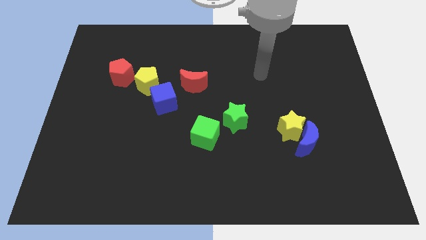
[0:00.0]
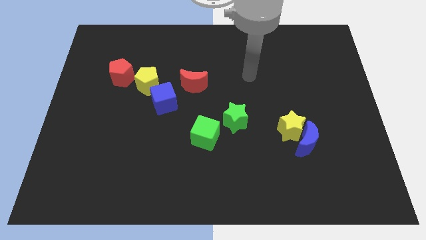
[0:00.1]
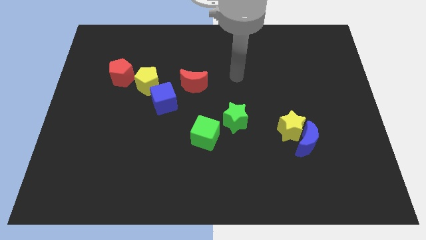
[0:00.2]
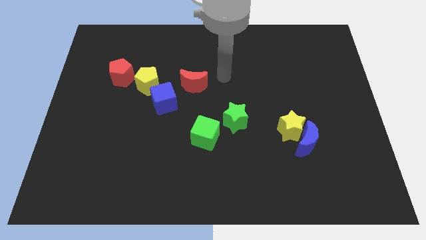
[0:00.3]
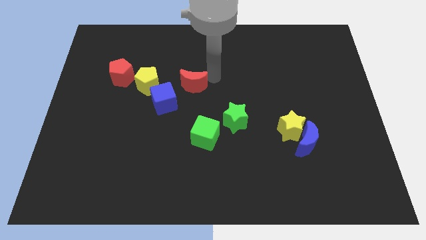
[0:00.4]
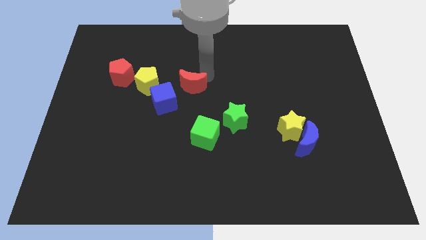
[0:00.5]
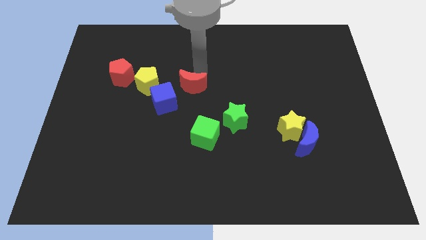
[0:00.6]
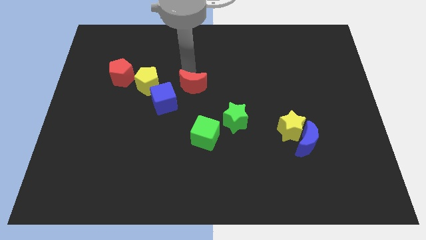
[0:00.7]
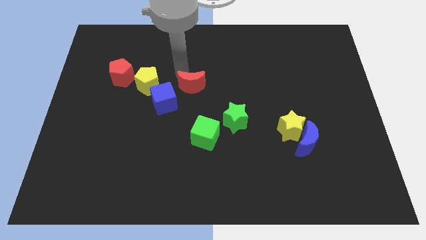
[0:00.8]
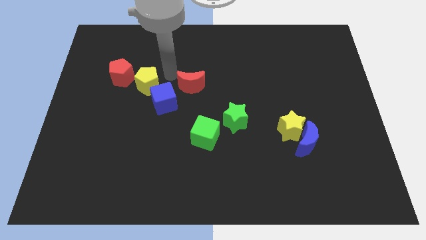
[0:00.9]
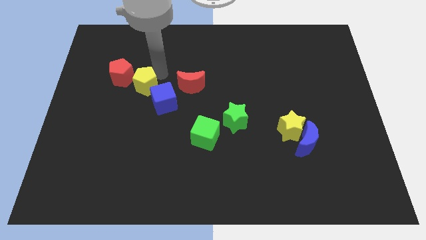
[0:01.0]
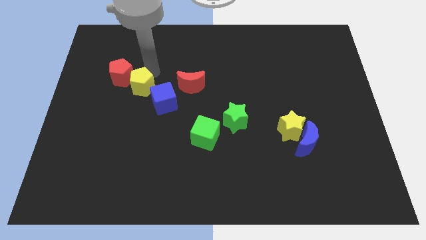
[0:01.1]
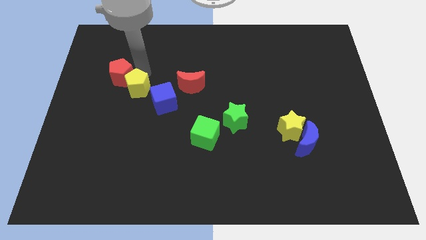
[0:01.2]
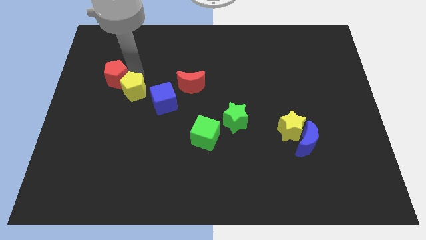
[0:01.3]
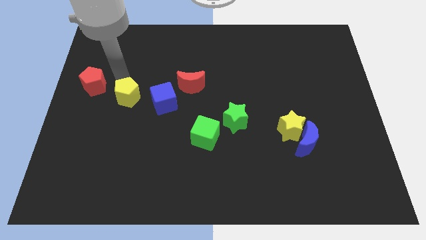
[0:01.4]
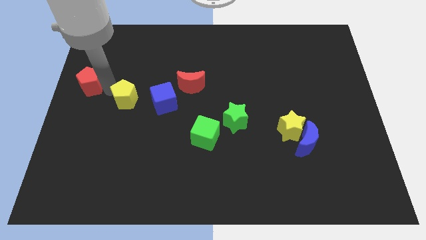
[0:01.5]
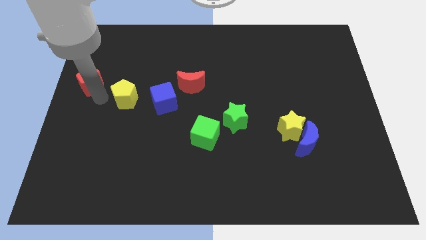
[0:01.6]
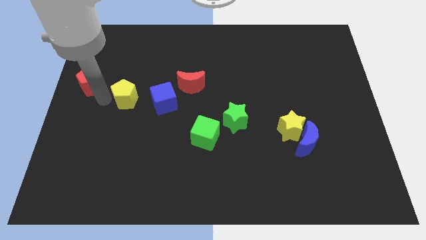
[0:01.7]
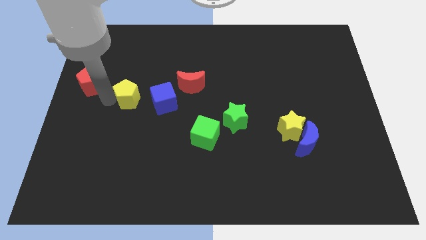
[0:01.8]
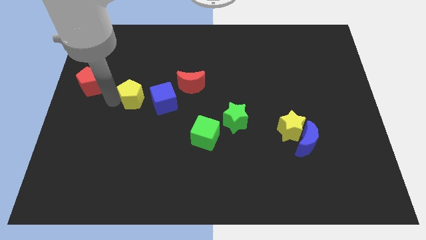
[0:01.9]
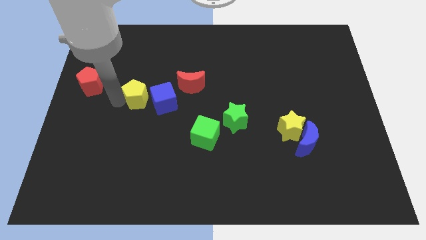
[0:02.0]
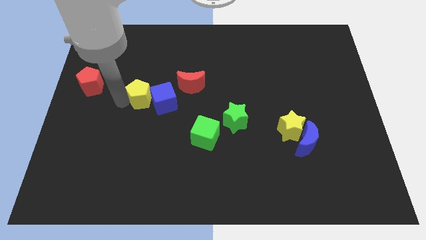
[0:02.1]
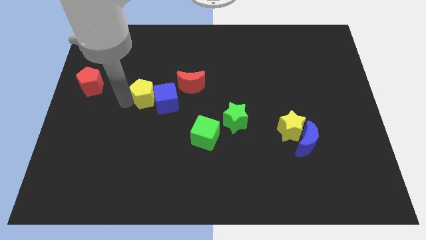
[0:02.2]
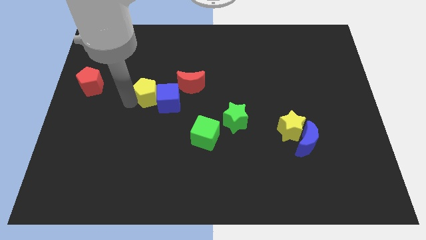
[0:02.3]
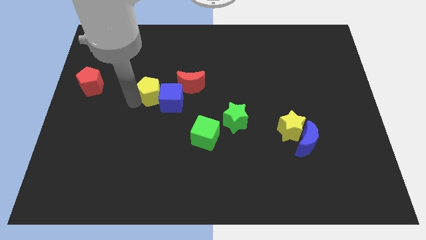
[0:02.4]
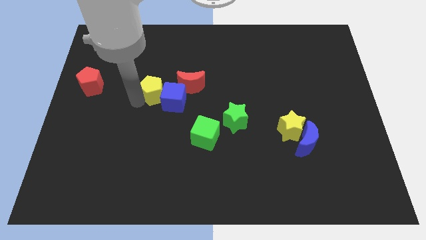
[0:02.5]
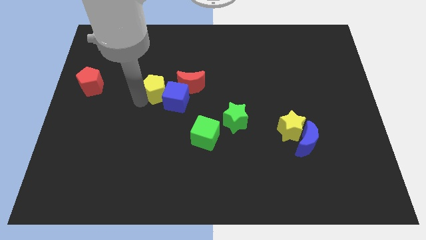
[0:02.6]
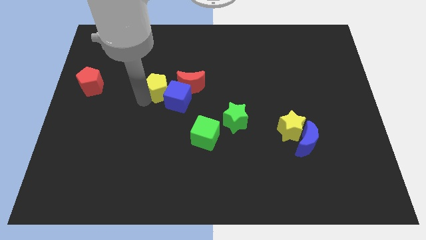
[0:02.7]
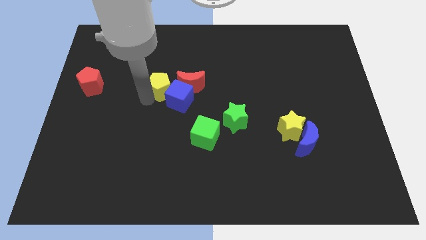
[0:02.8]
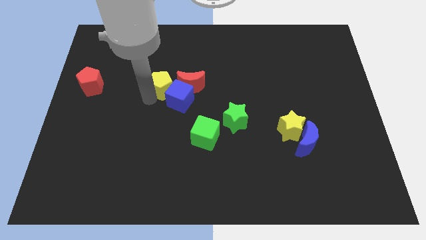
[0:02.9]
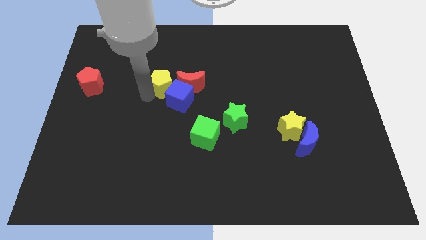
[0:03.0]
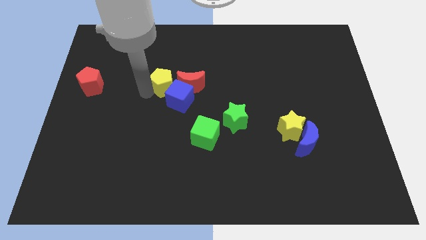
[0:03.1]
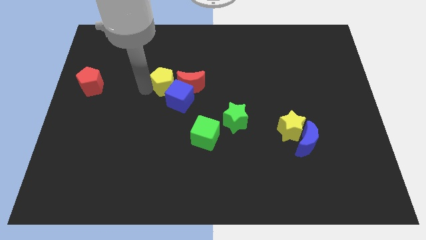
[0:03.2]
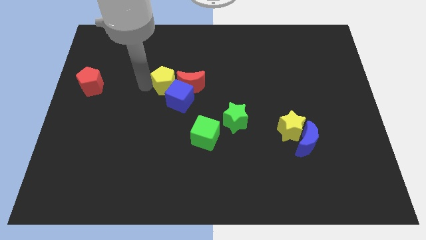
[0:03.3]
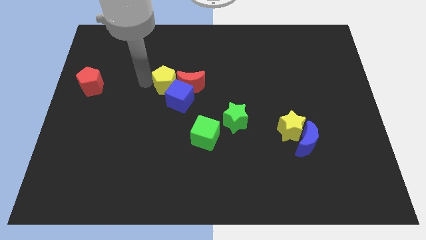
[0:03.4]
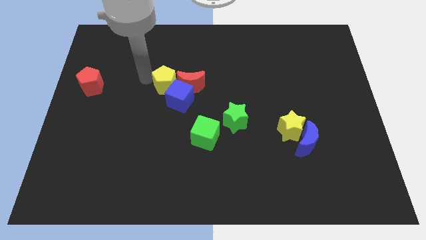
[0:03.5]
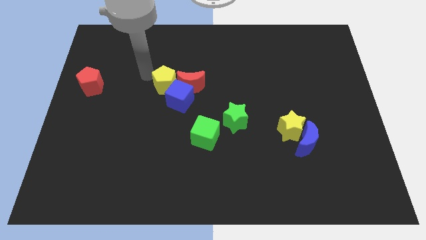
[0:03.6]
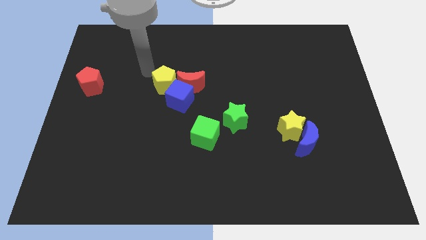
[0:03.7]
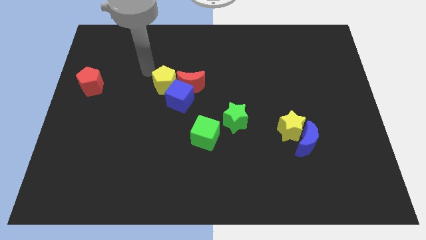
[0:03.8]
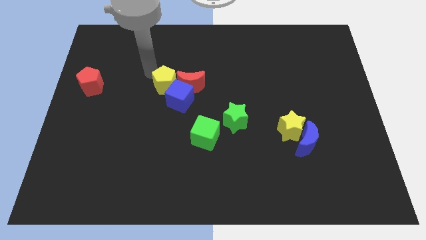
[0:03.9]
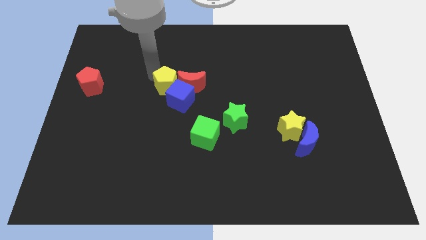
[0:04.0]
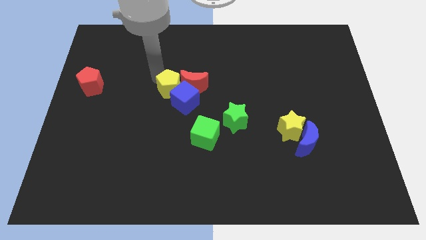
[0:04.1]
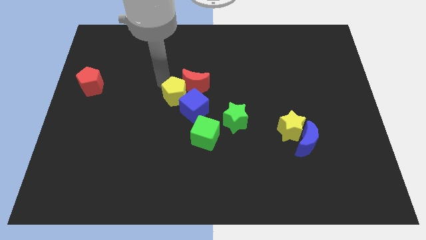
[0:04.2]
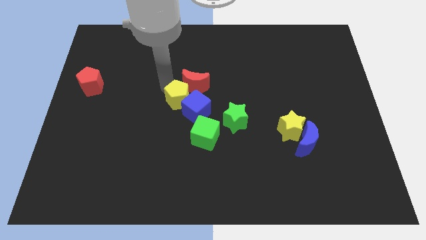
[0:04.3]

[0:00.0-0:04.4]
move the yellow pentagon to the right a little bit

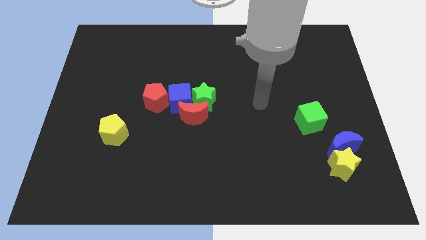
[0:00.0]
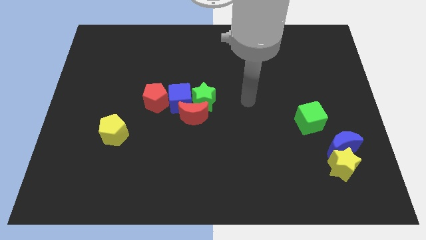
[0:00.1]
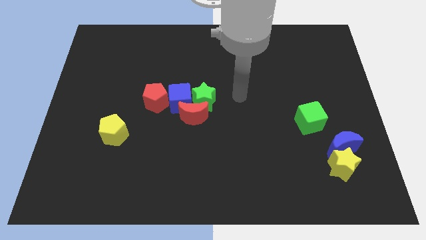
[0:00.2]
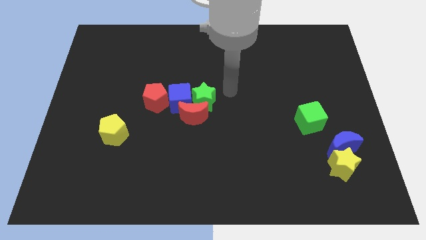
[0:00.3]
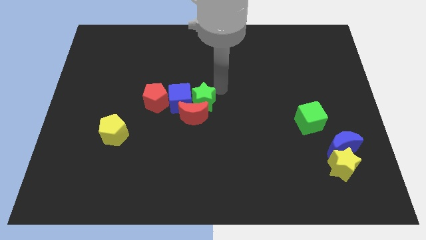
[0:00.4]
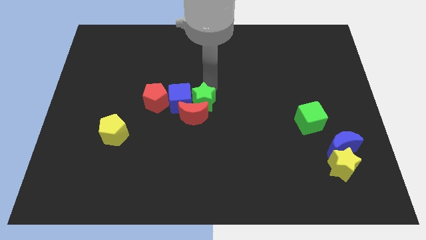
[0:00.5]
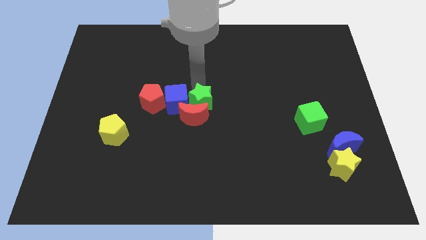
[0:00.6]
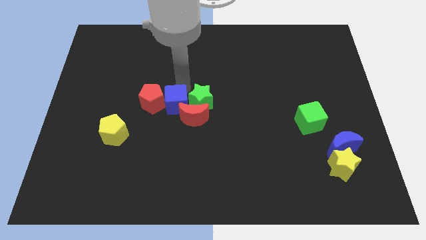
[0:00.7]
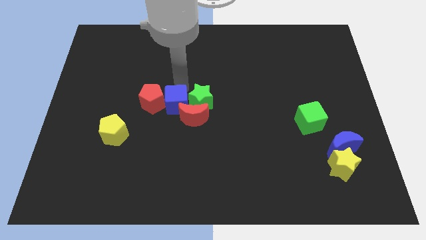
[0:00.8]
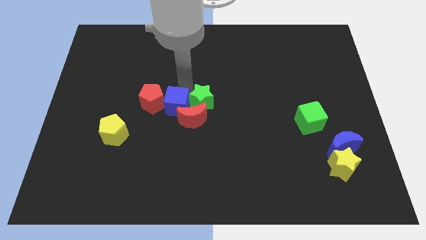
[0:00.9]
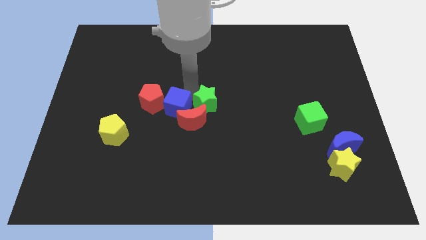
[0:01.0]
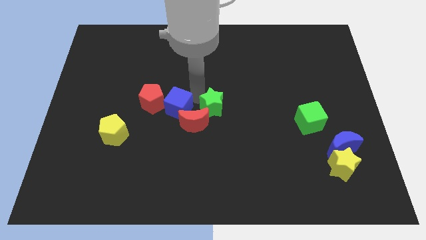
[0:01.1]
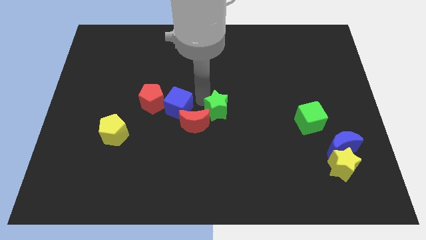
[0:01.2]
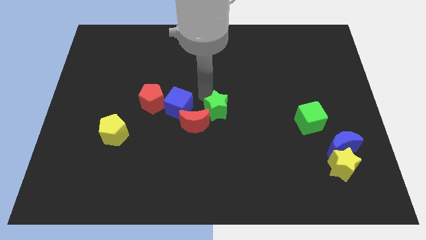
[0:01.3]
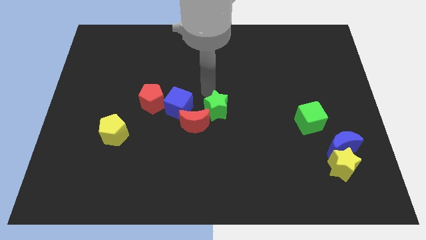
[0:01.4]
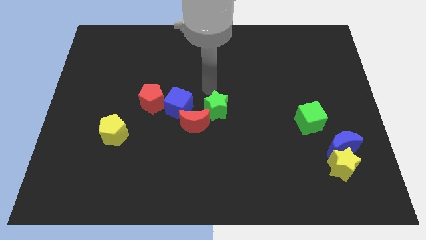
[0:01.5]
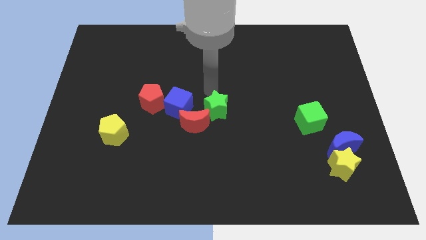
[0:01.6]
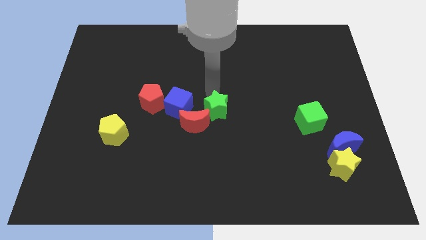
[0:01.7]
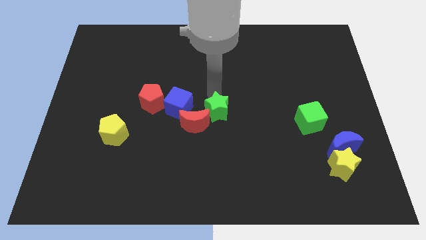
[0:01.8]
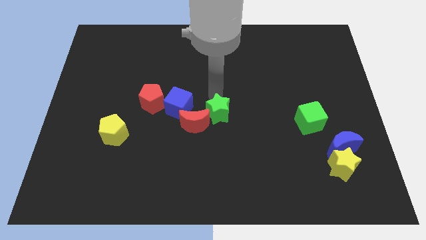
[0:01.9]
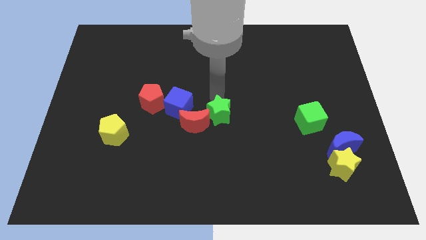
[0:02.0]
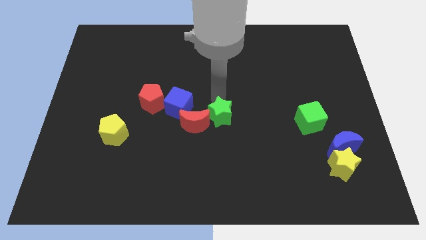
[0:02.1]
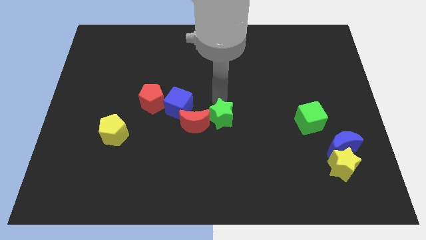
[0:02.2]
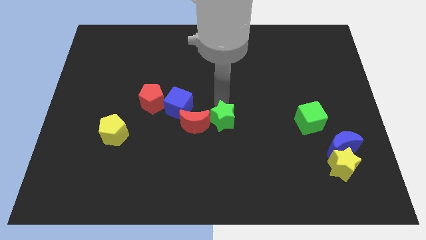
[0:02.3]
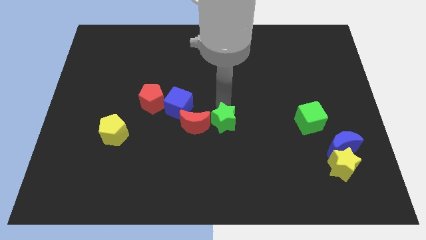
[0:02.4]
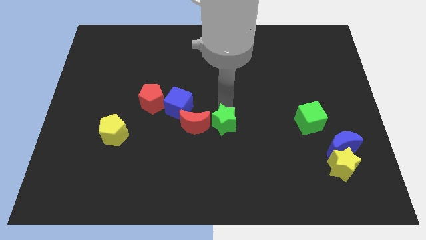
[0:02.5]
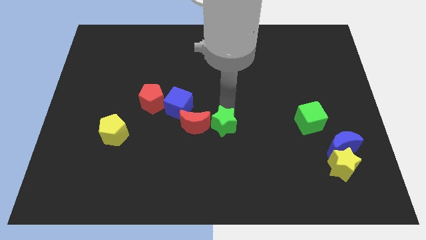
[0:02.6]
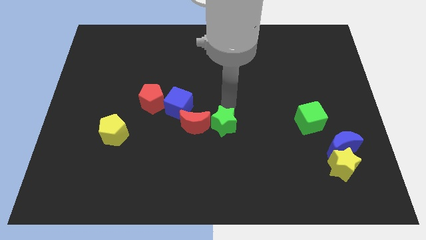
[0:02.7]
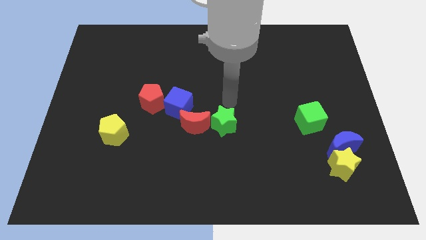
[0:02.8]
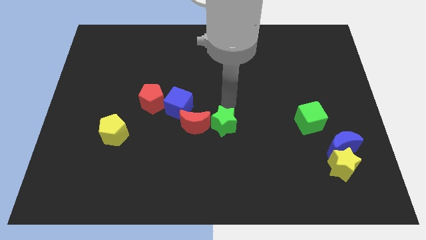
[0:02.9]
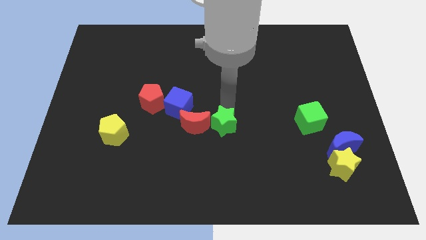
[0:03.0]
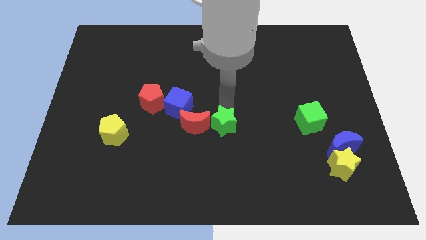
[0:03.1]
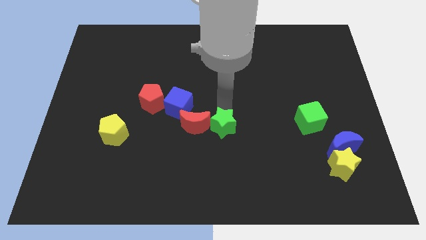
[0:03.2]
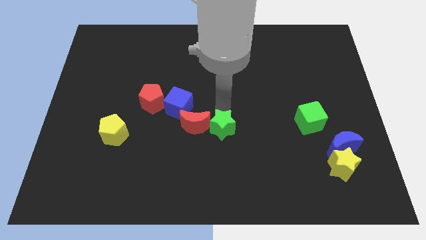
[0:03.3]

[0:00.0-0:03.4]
slightly move the green star down
